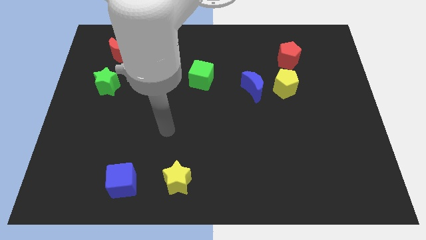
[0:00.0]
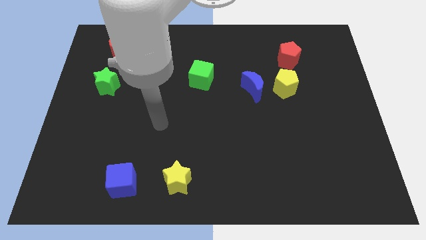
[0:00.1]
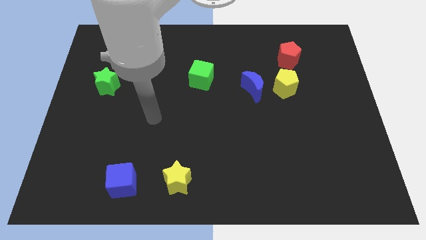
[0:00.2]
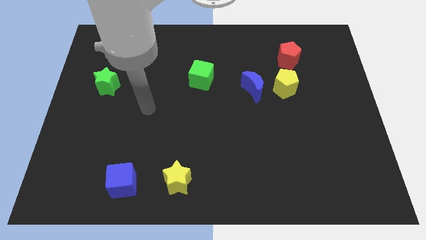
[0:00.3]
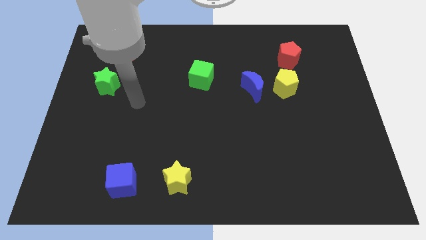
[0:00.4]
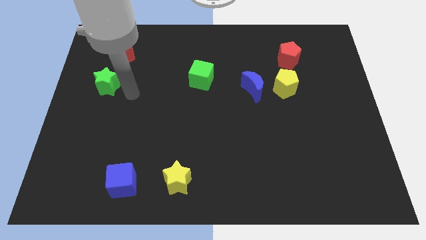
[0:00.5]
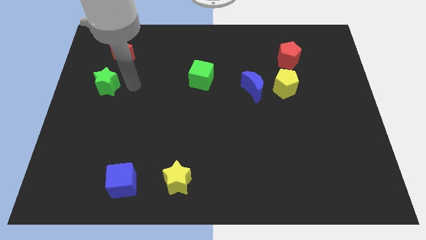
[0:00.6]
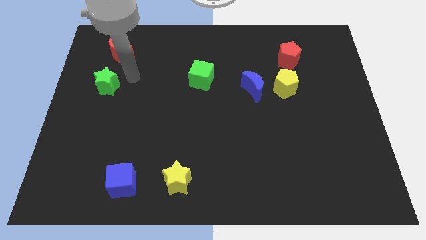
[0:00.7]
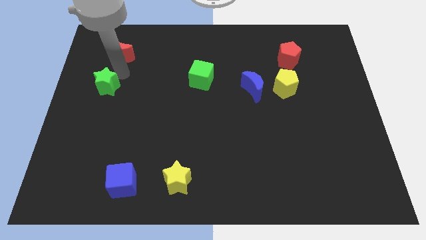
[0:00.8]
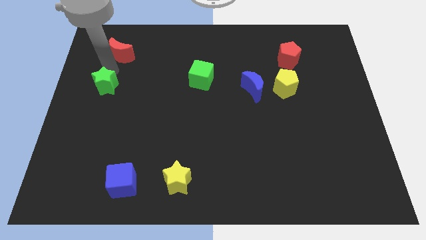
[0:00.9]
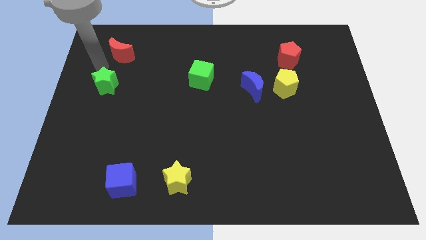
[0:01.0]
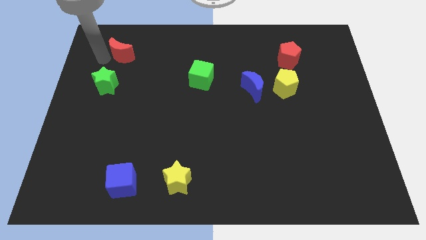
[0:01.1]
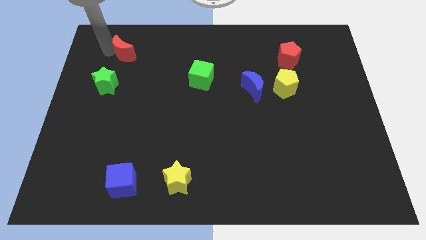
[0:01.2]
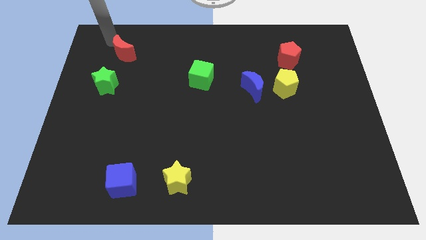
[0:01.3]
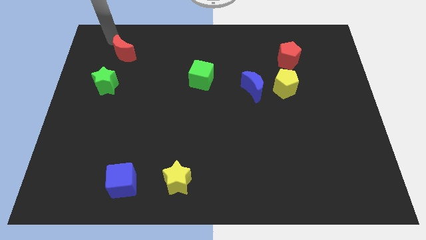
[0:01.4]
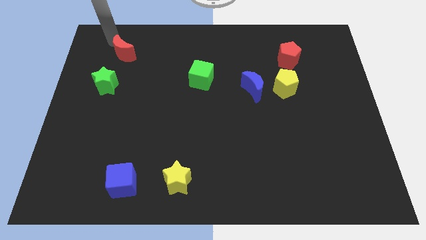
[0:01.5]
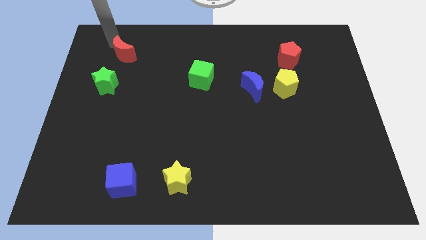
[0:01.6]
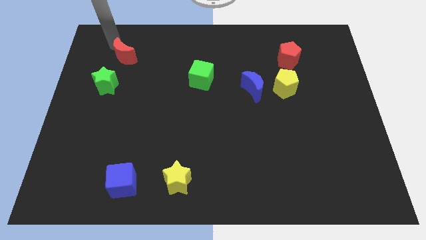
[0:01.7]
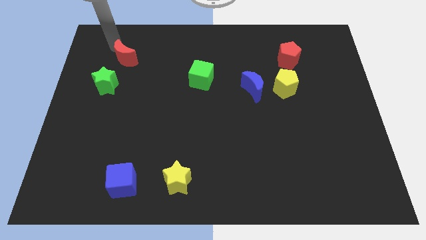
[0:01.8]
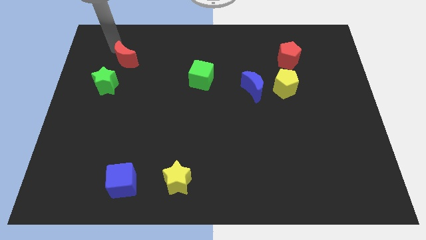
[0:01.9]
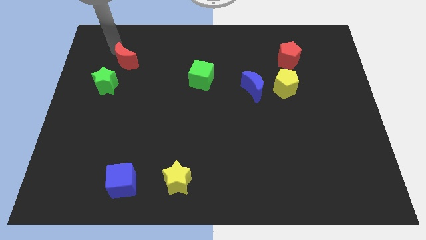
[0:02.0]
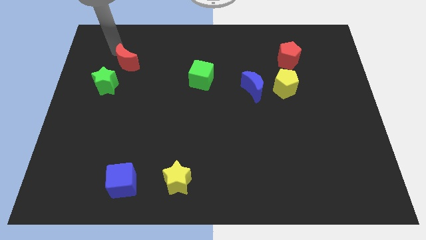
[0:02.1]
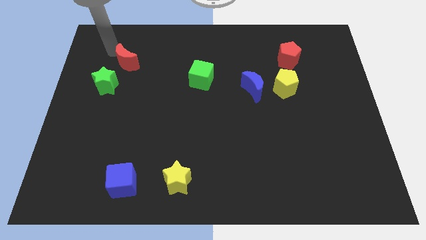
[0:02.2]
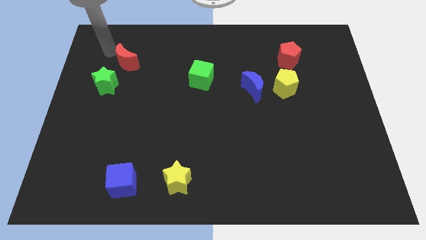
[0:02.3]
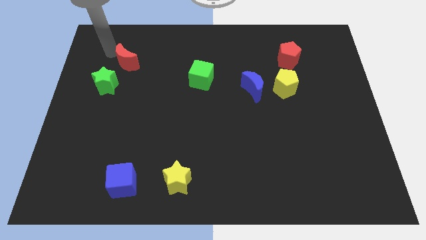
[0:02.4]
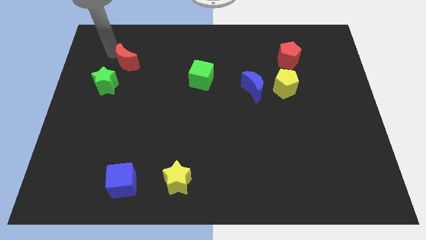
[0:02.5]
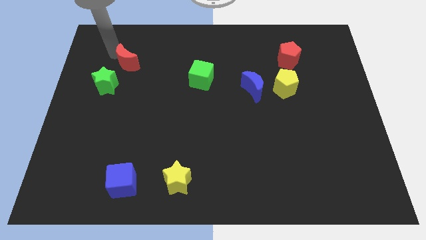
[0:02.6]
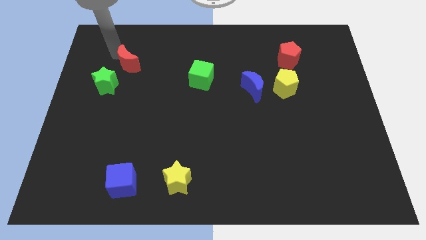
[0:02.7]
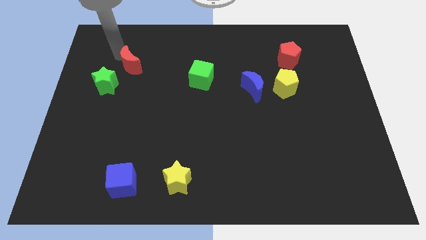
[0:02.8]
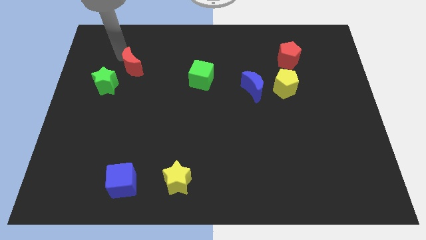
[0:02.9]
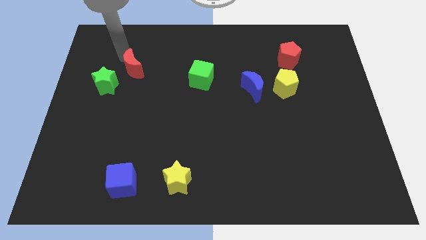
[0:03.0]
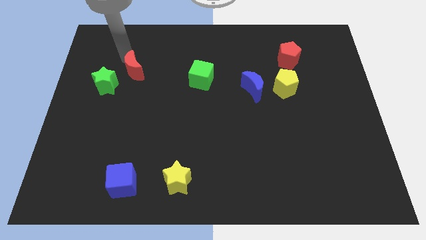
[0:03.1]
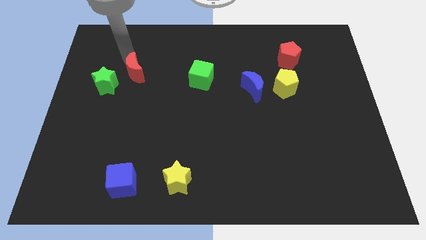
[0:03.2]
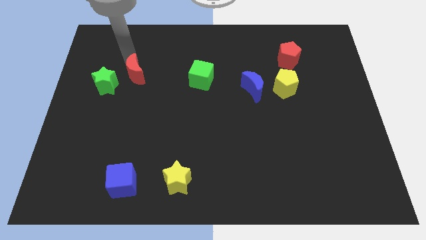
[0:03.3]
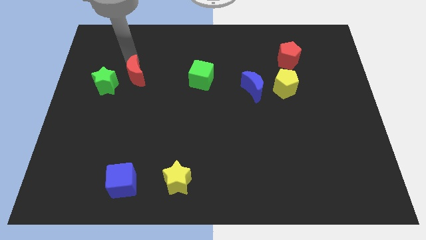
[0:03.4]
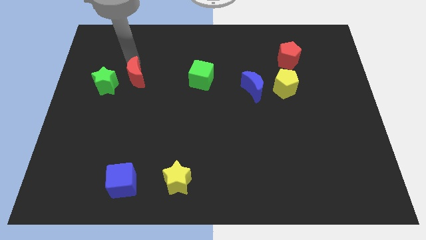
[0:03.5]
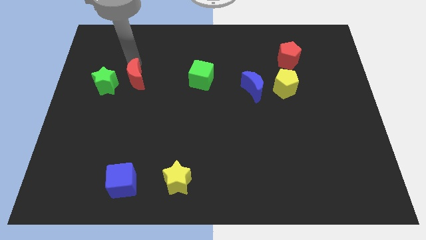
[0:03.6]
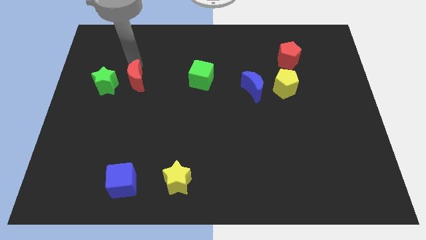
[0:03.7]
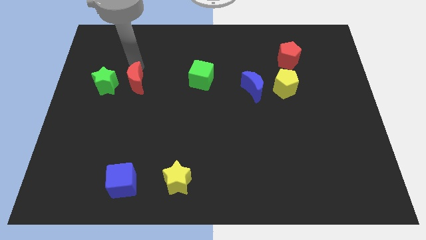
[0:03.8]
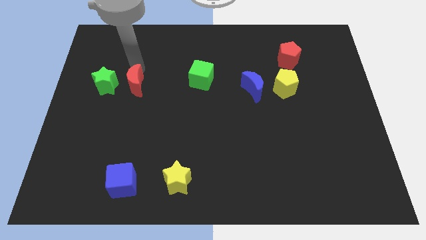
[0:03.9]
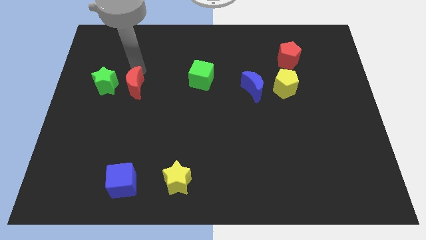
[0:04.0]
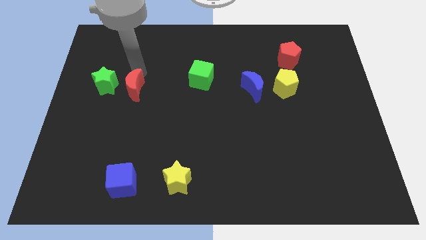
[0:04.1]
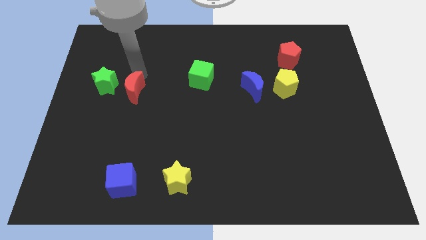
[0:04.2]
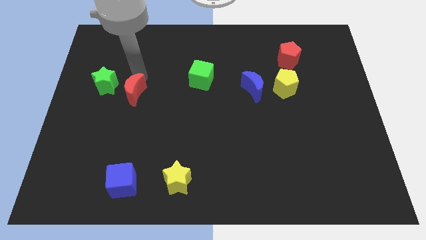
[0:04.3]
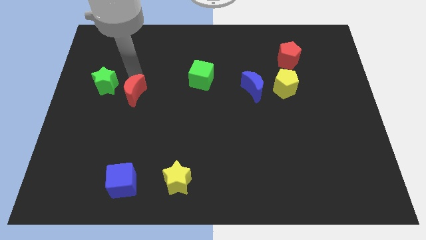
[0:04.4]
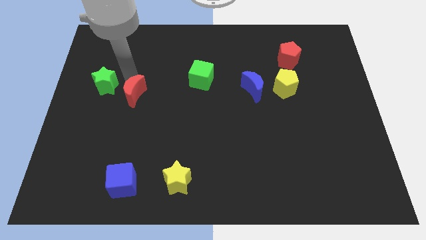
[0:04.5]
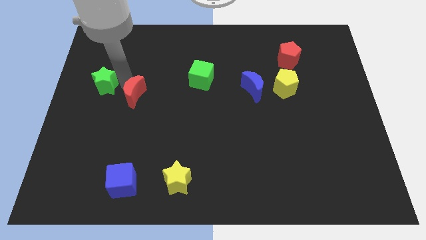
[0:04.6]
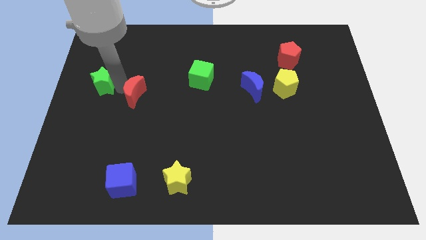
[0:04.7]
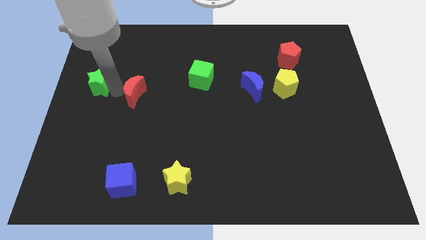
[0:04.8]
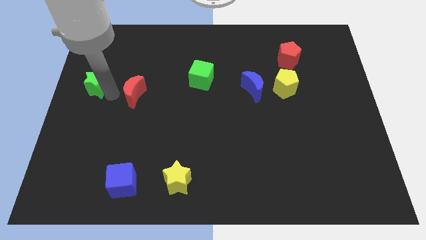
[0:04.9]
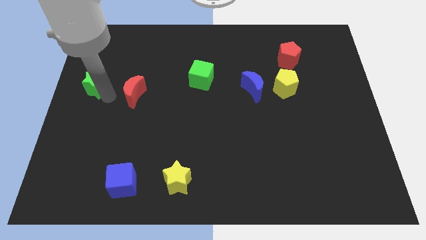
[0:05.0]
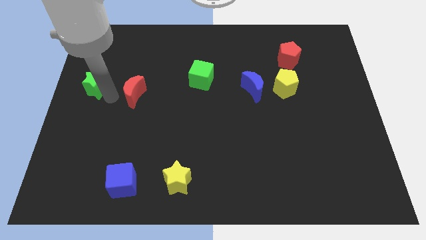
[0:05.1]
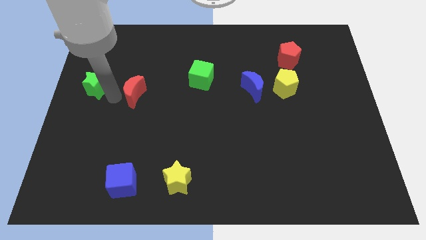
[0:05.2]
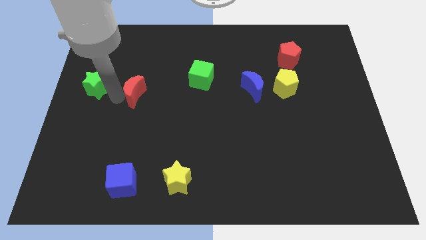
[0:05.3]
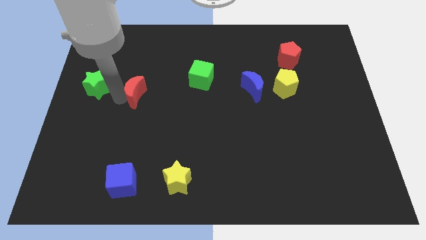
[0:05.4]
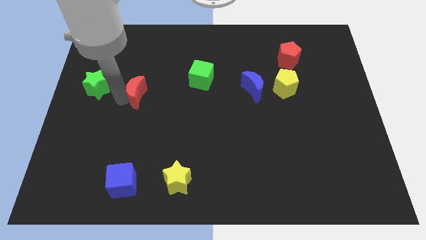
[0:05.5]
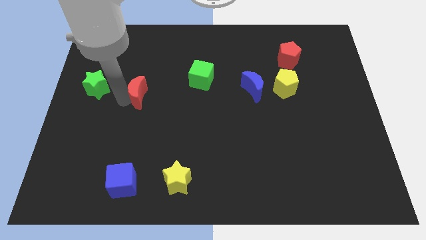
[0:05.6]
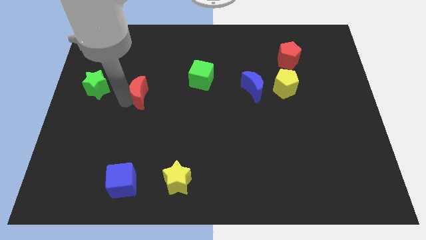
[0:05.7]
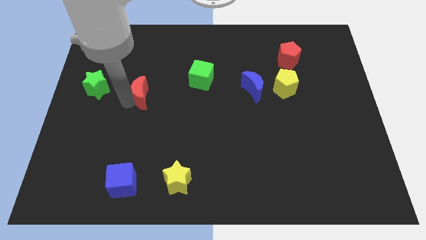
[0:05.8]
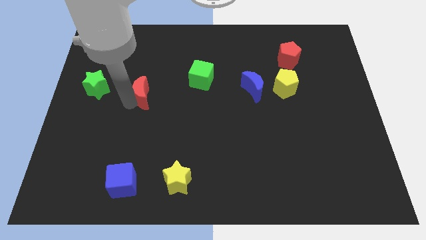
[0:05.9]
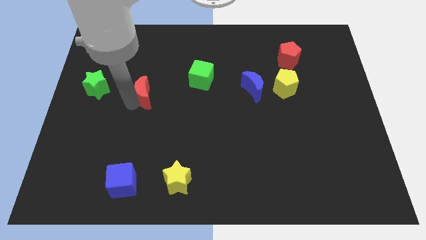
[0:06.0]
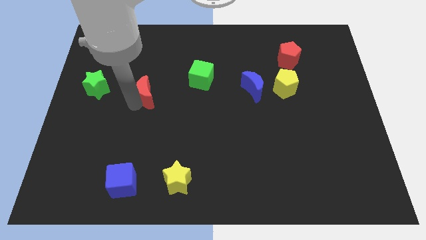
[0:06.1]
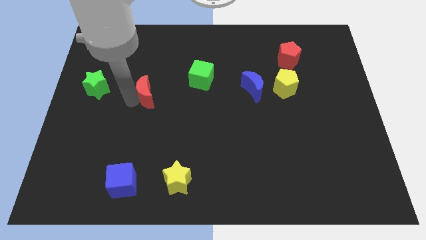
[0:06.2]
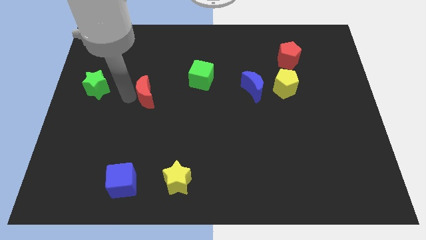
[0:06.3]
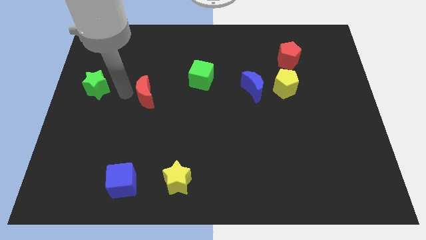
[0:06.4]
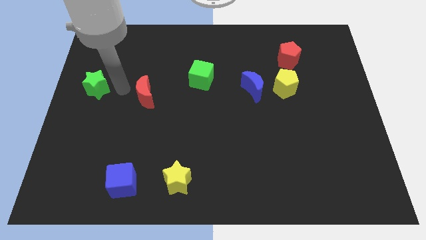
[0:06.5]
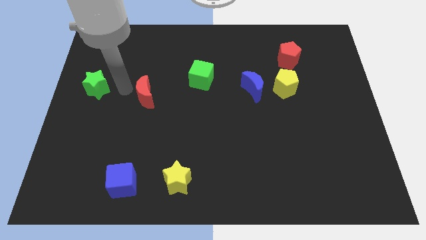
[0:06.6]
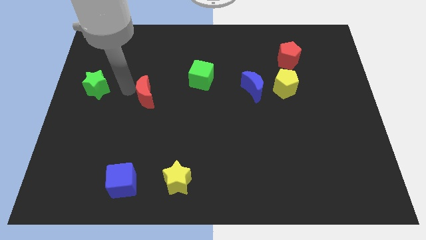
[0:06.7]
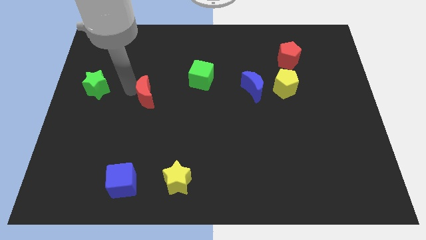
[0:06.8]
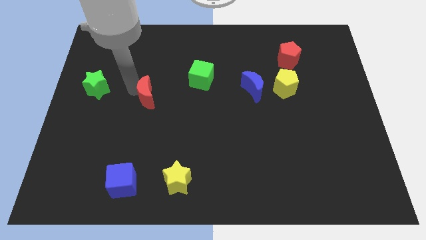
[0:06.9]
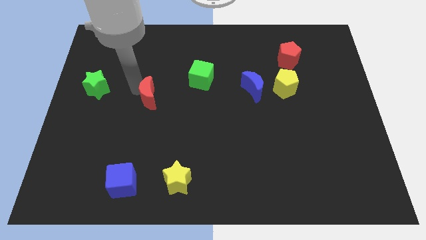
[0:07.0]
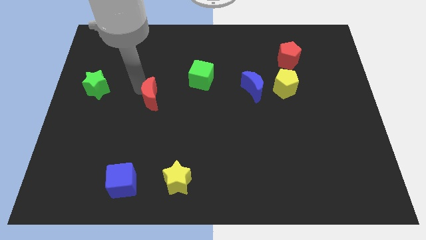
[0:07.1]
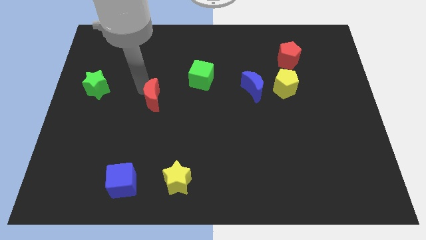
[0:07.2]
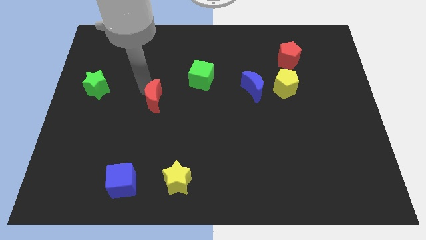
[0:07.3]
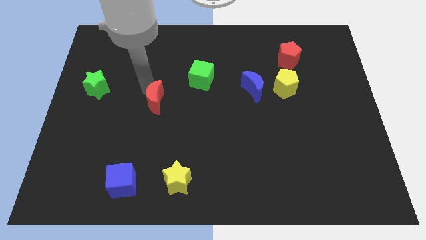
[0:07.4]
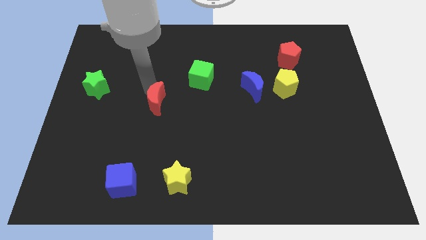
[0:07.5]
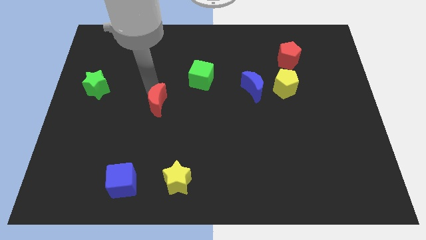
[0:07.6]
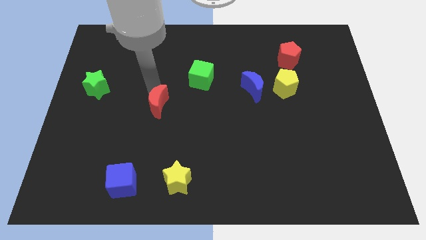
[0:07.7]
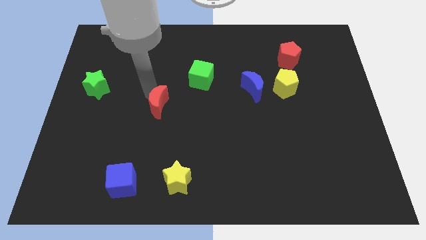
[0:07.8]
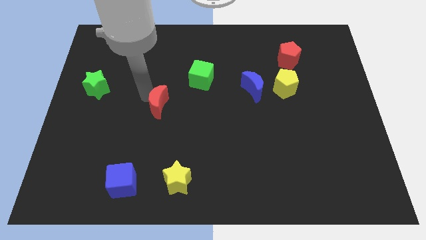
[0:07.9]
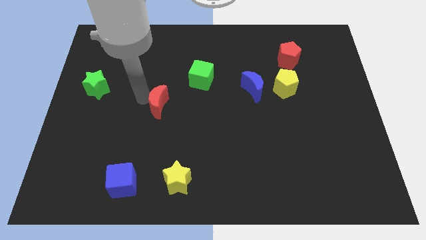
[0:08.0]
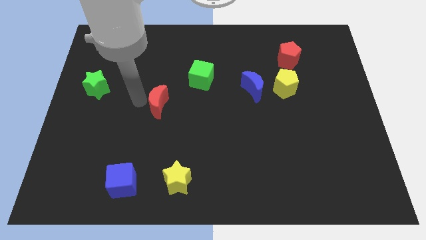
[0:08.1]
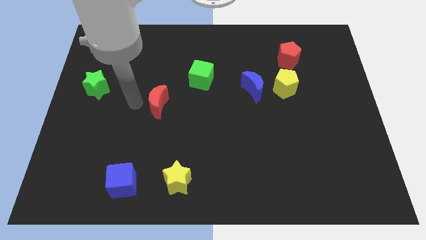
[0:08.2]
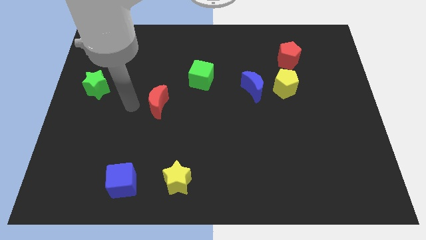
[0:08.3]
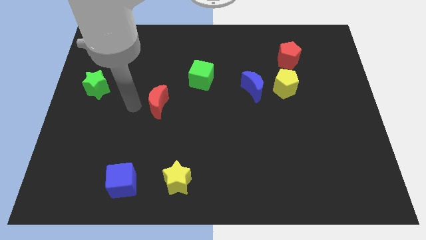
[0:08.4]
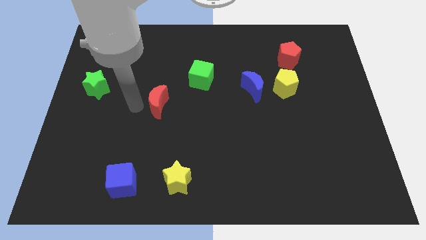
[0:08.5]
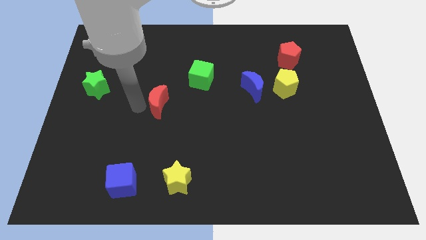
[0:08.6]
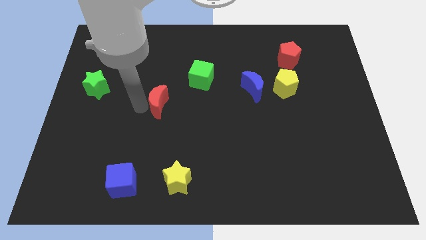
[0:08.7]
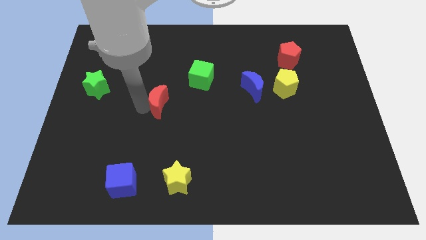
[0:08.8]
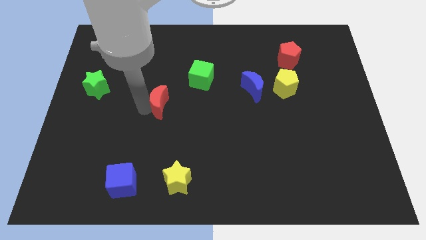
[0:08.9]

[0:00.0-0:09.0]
slide the red moon diagonally downwards and right
